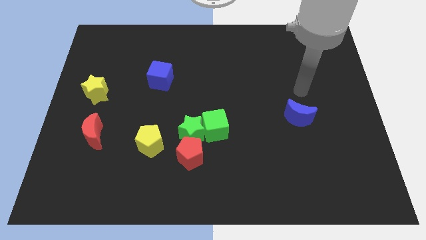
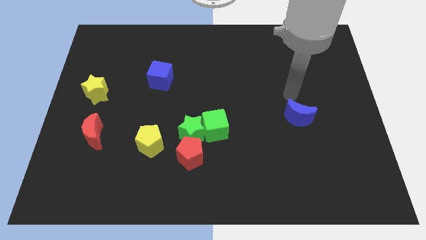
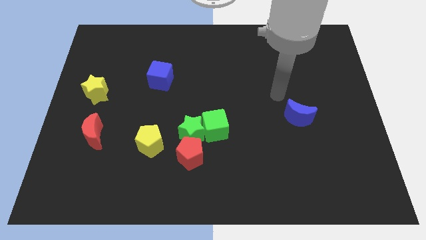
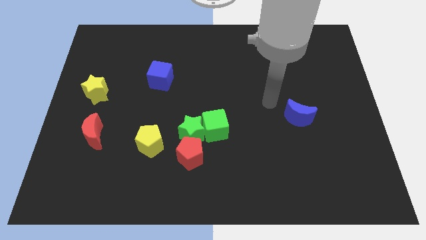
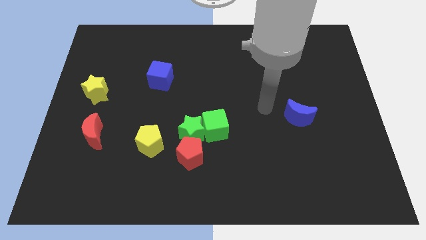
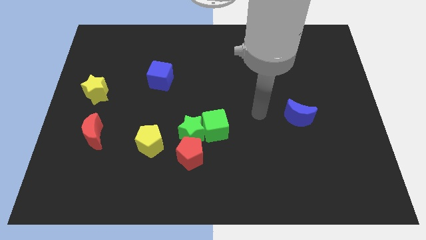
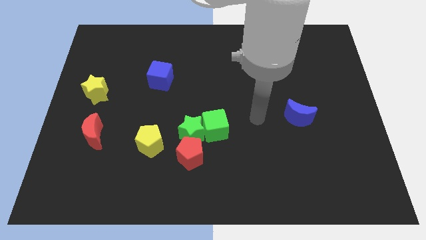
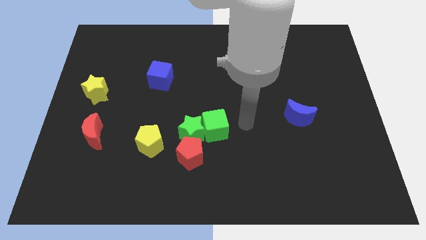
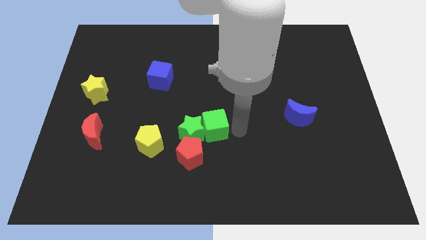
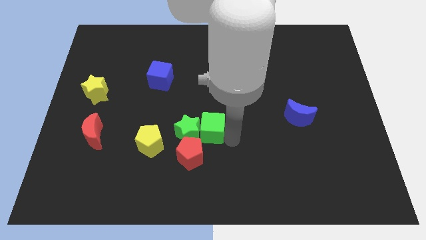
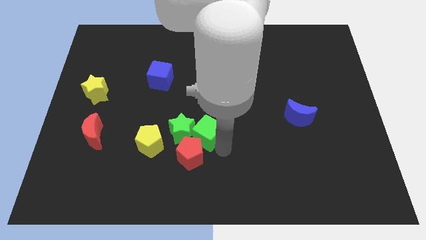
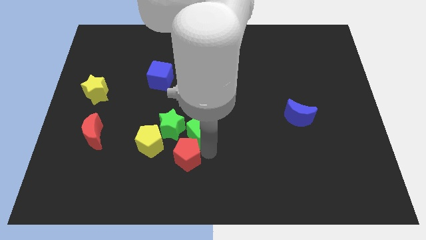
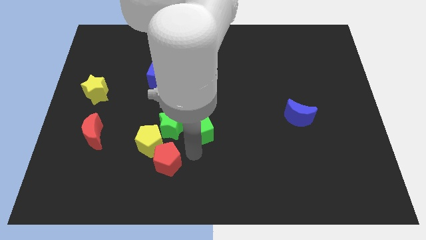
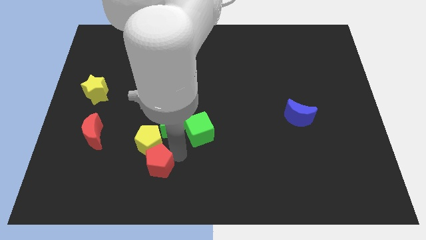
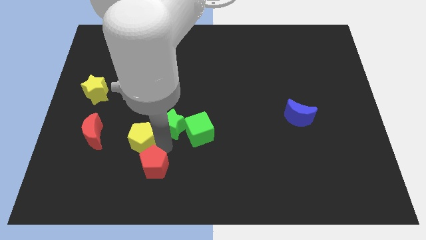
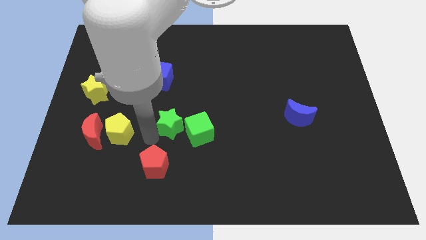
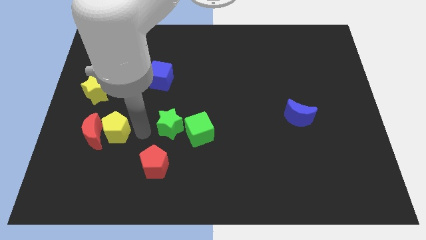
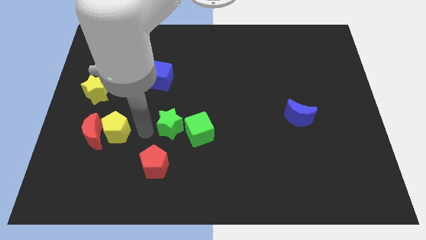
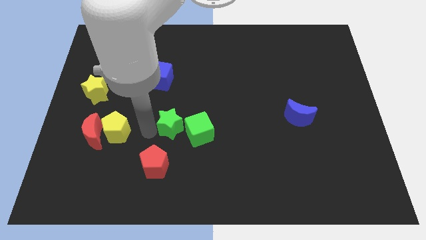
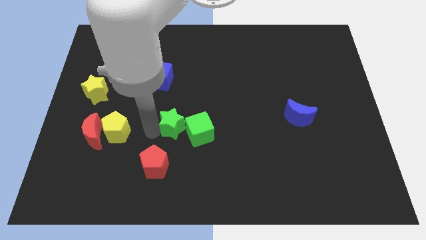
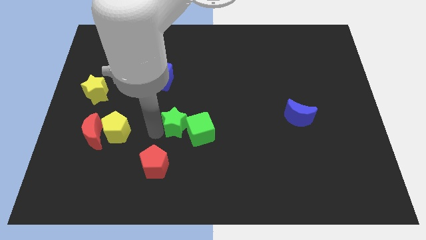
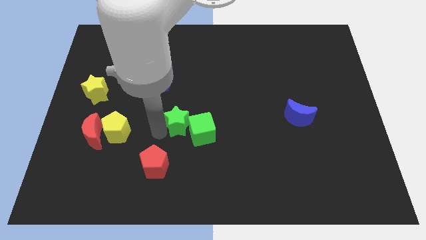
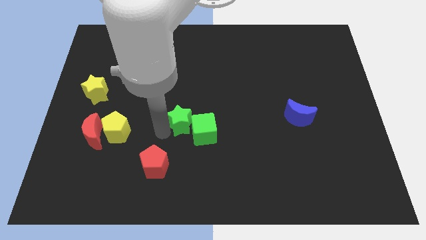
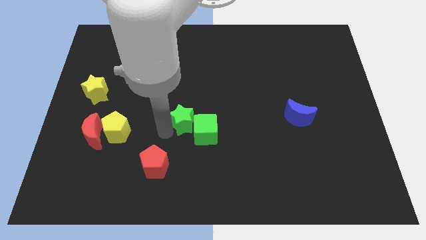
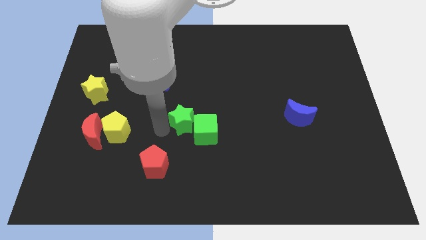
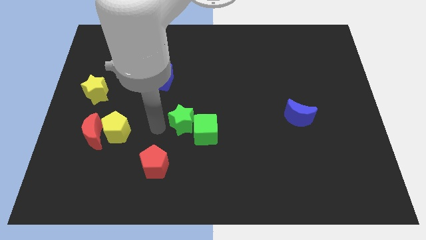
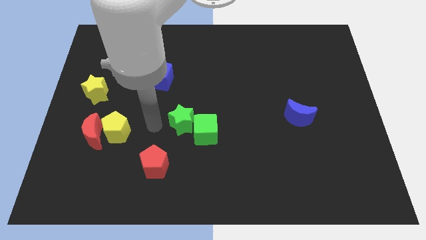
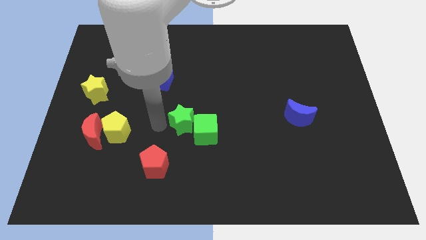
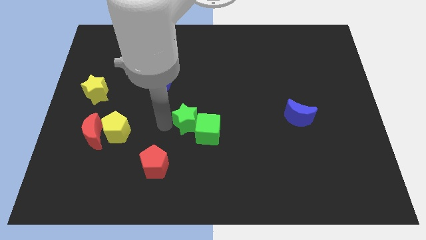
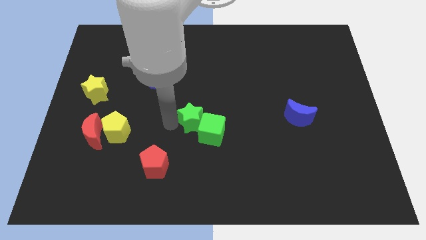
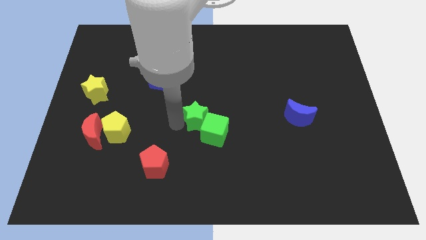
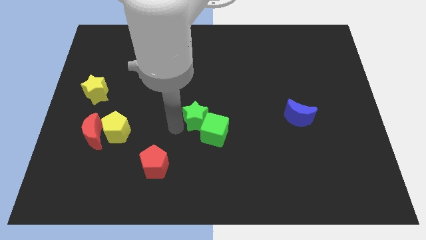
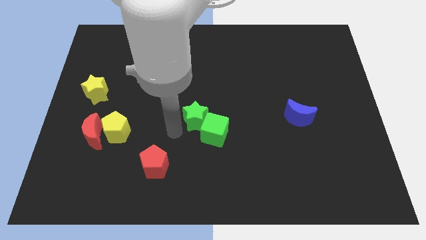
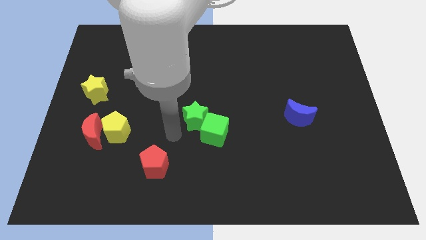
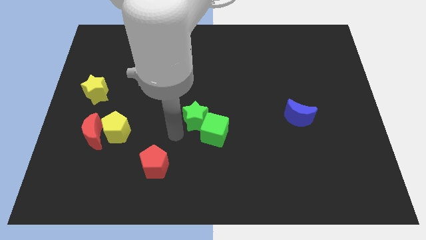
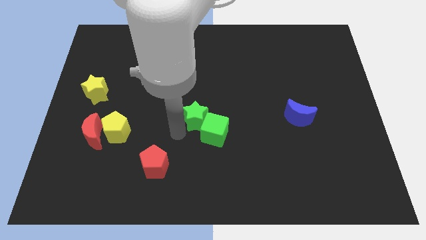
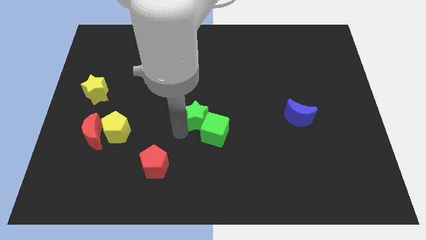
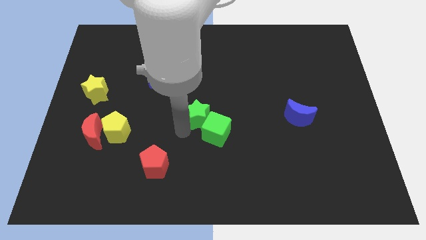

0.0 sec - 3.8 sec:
move the green star away from the green cube, red pentagon, and yellow pentagon

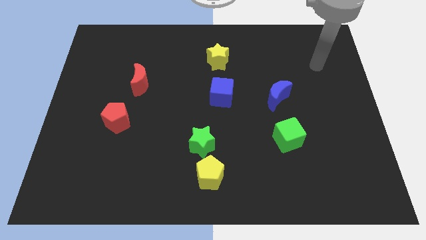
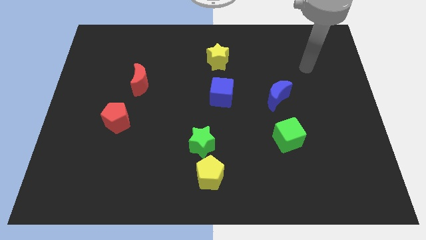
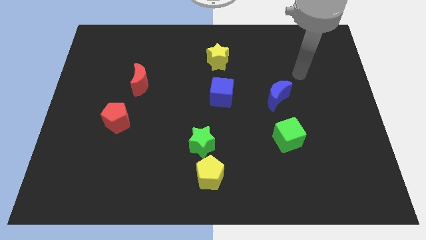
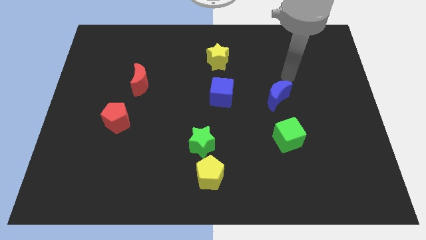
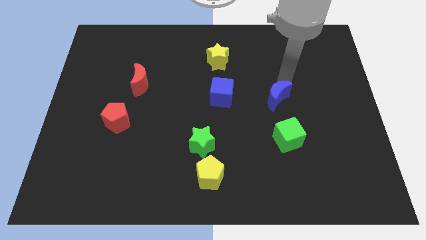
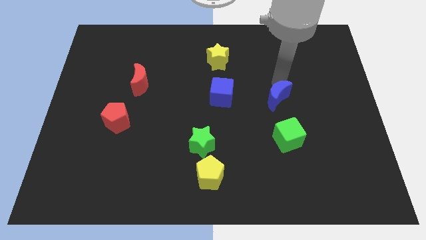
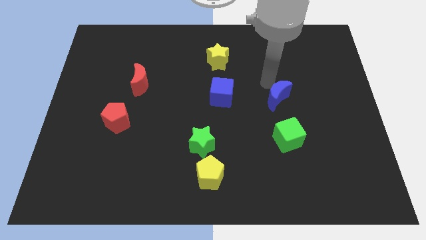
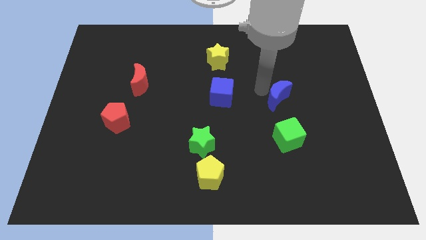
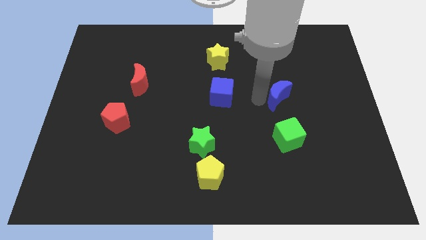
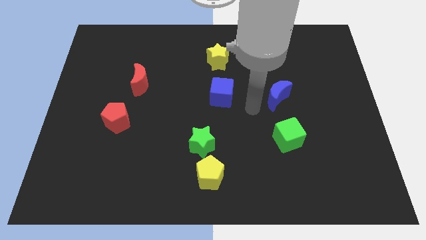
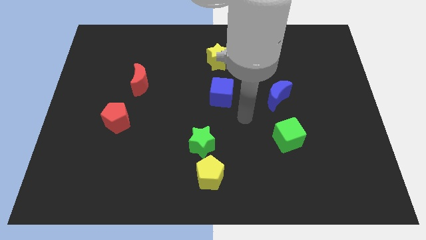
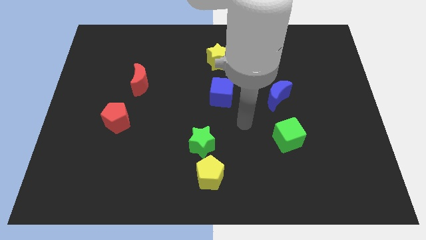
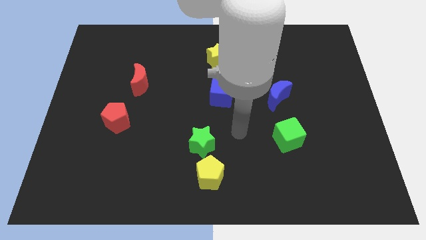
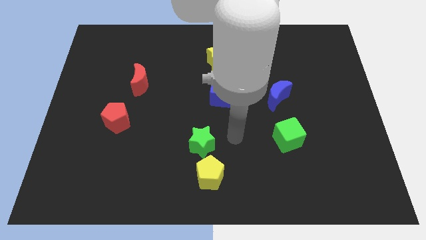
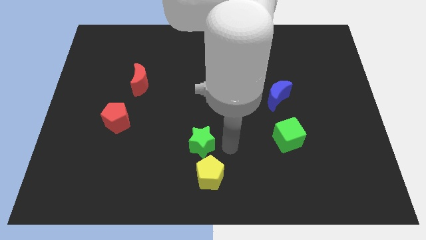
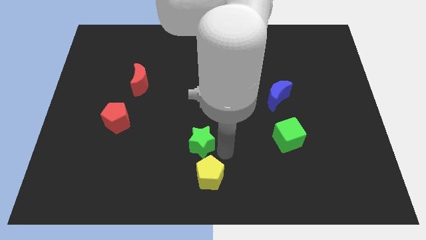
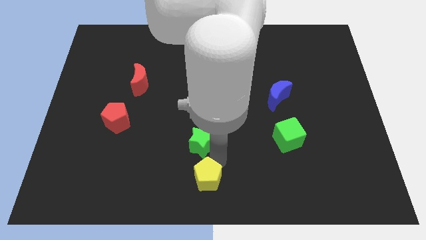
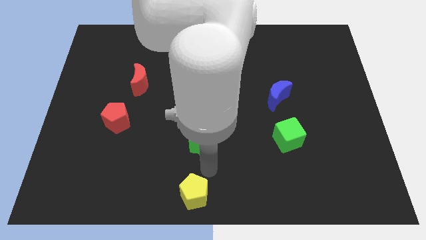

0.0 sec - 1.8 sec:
move the green star away from the yellow pentagon

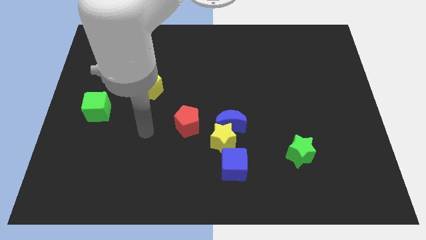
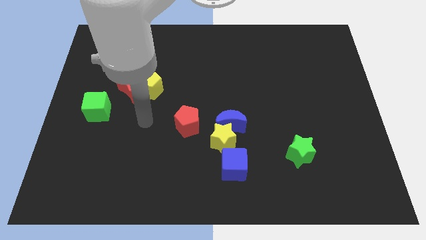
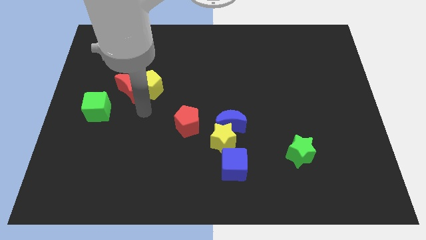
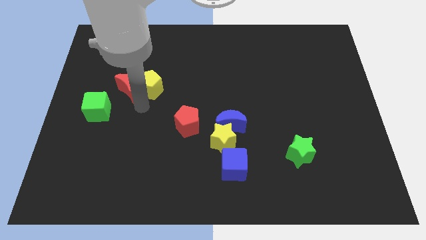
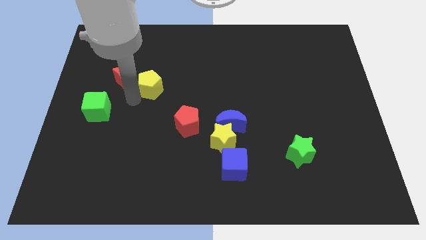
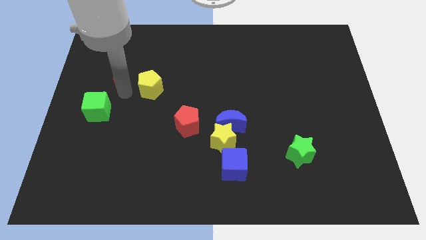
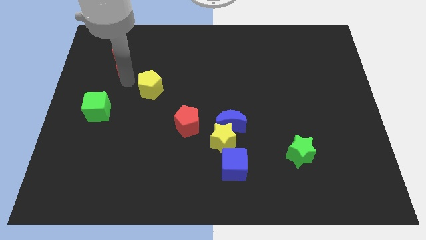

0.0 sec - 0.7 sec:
pull the yellow pentagon apart from the red moon

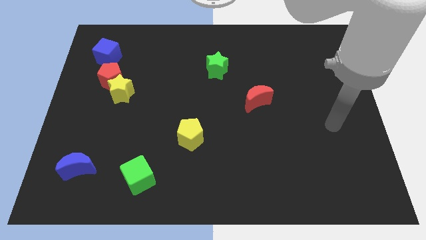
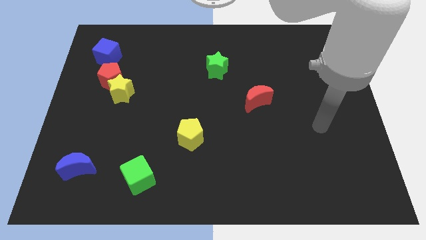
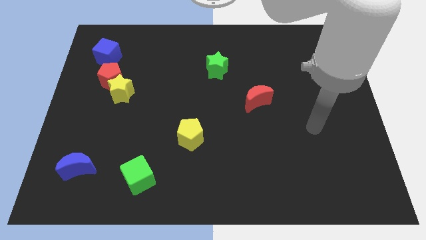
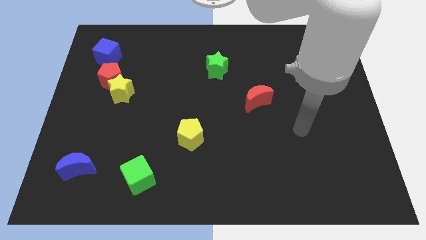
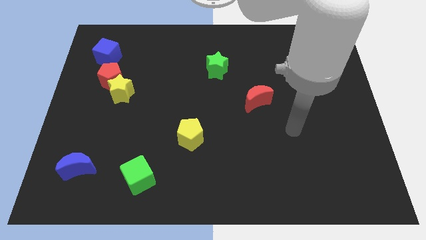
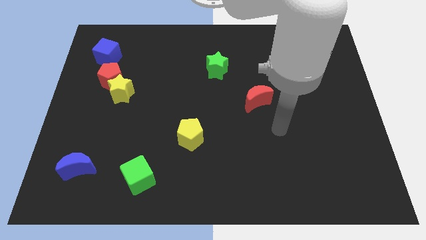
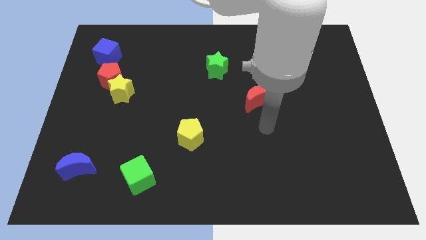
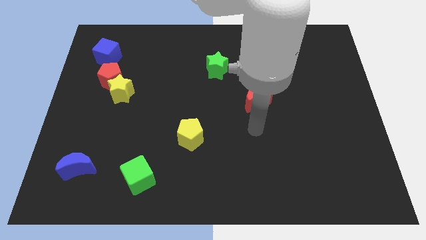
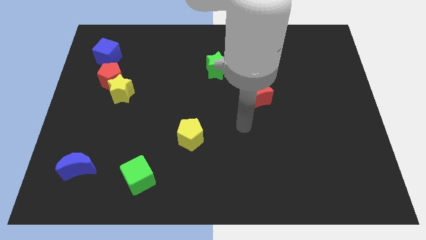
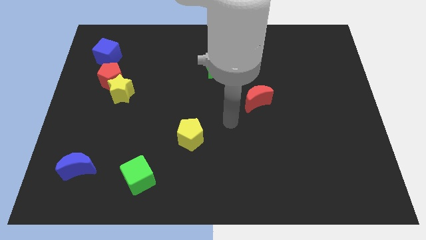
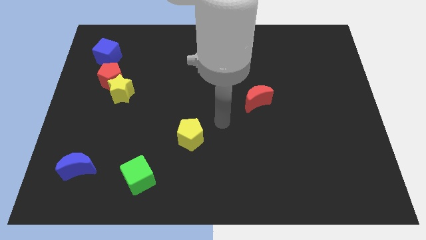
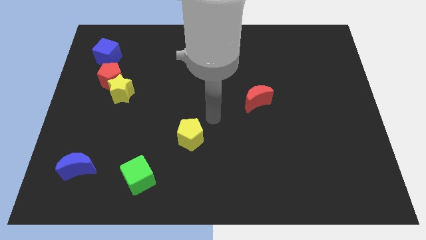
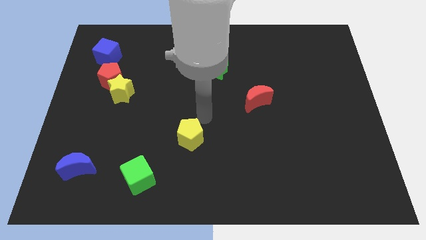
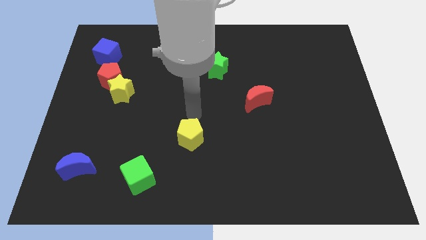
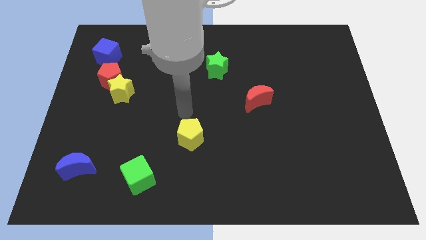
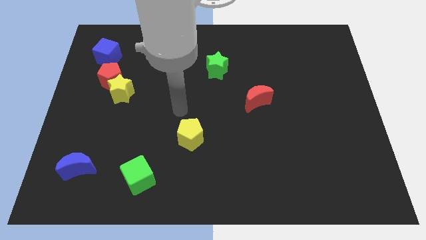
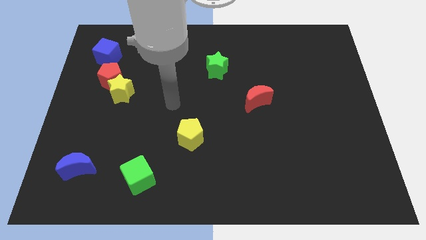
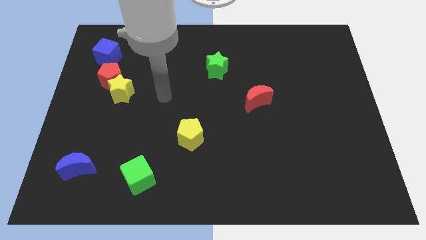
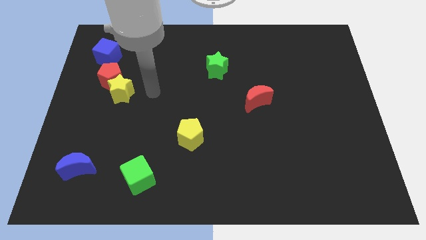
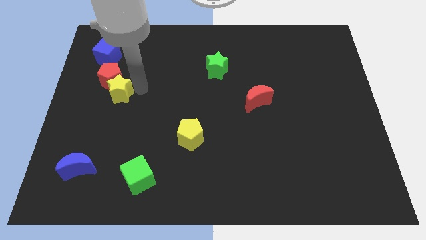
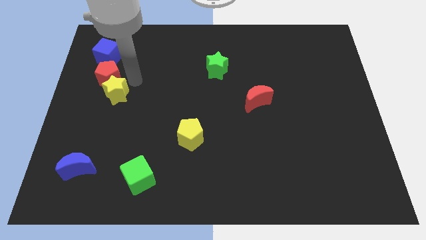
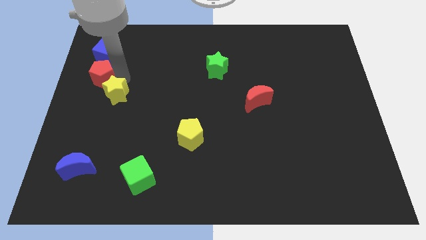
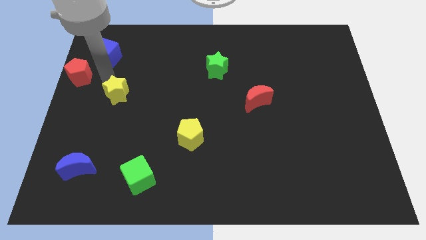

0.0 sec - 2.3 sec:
move the yellow star away from the red pentagon

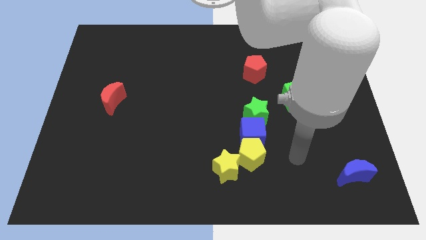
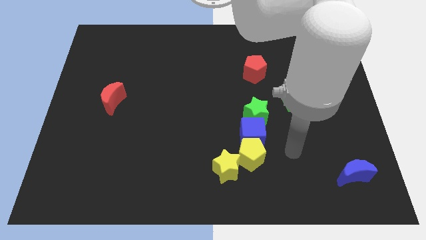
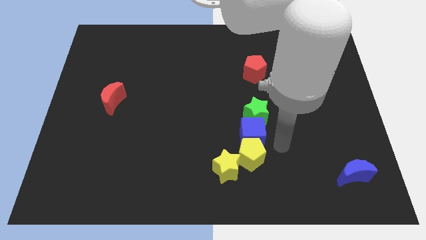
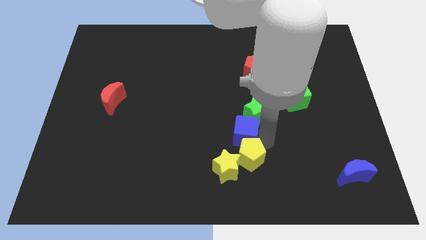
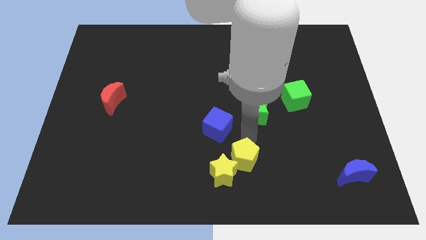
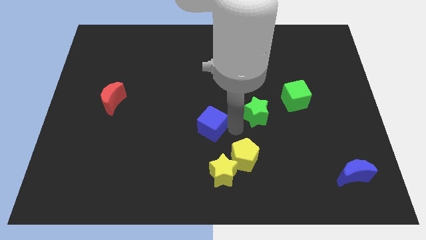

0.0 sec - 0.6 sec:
pull the green star apart from the blue cube

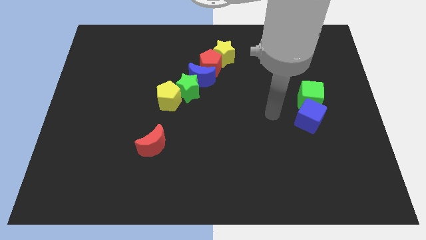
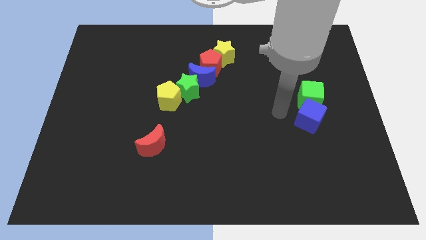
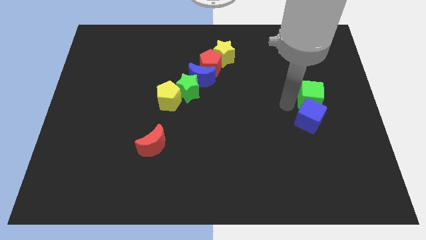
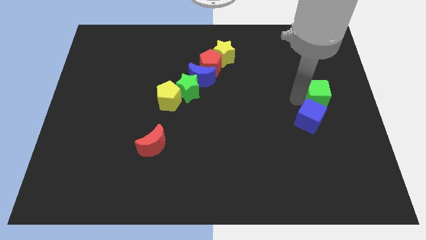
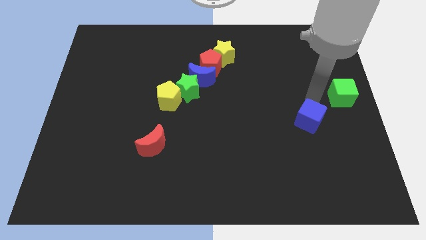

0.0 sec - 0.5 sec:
pull the blue cube apart from the green cube
